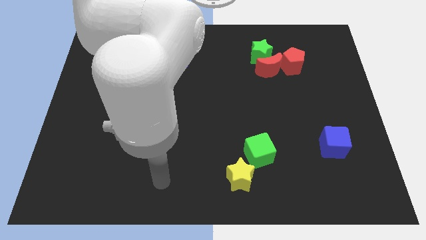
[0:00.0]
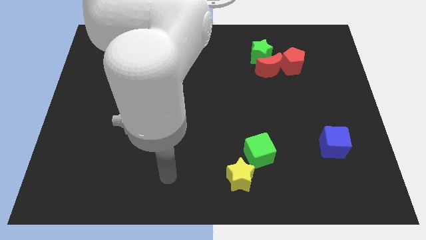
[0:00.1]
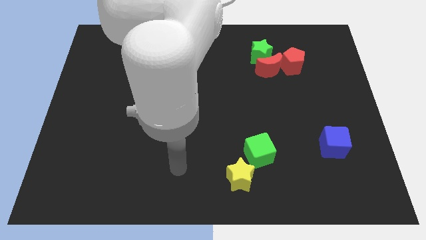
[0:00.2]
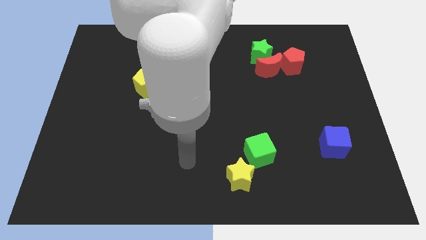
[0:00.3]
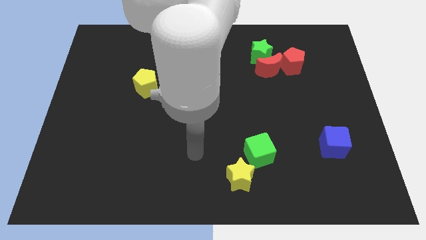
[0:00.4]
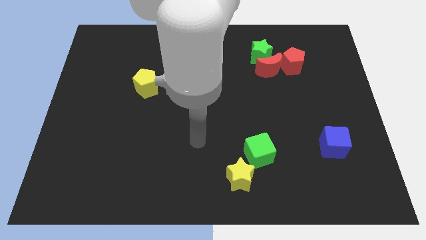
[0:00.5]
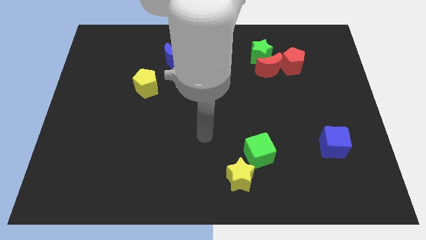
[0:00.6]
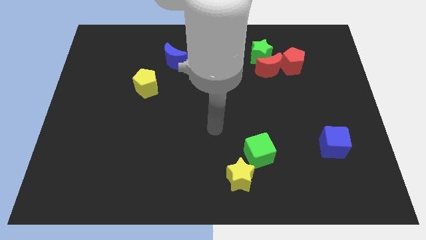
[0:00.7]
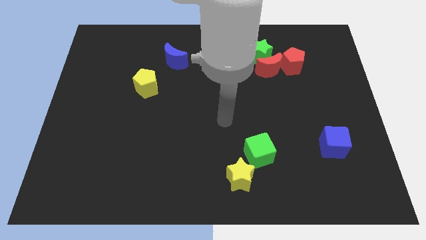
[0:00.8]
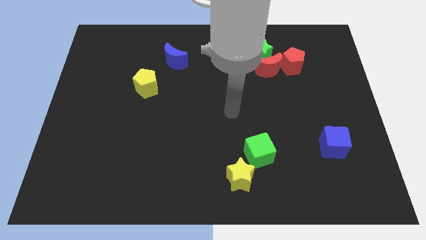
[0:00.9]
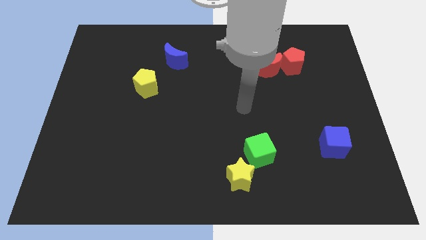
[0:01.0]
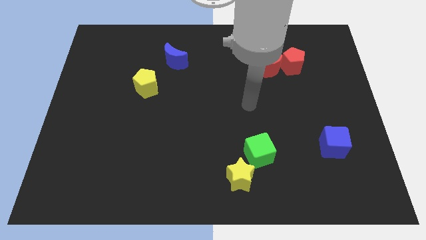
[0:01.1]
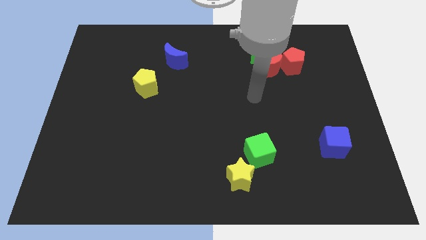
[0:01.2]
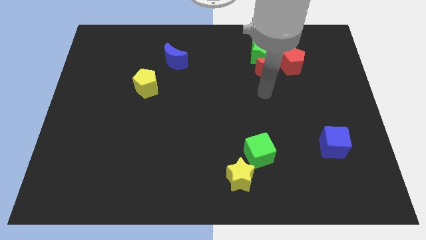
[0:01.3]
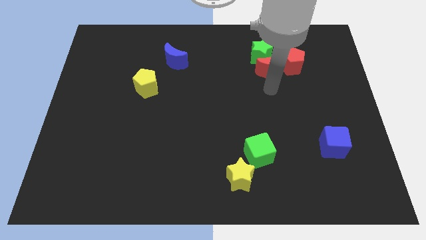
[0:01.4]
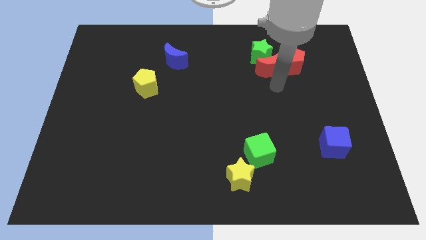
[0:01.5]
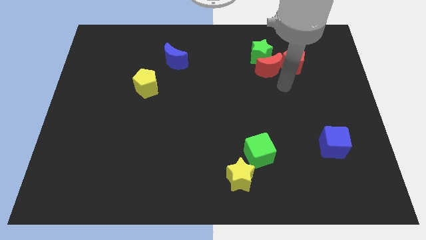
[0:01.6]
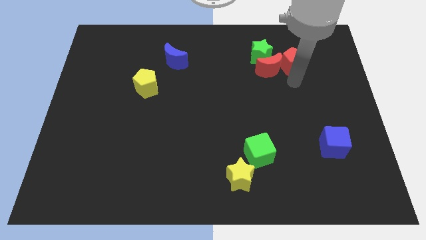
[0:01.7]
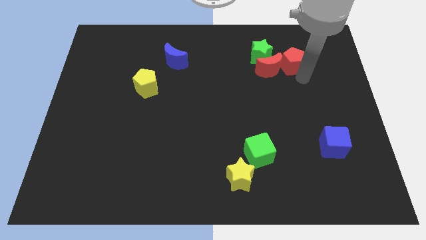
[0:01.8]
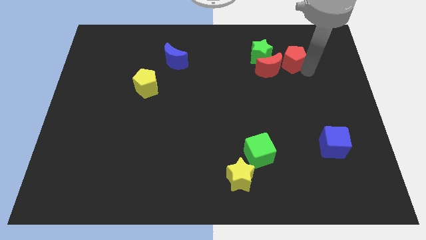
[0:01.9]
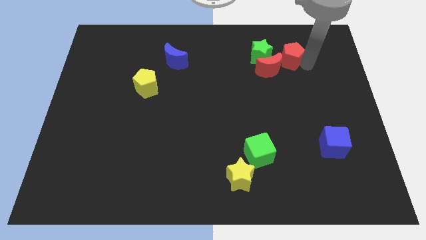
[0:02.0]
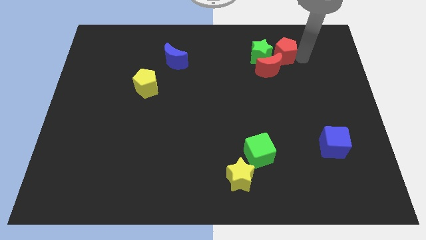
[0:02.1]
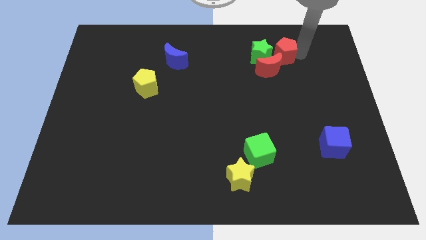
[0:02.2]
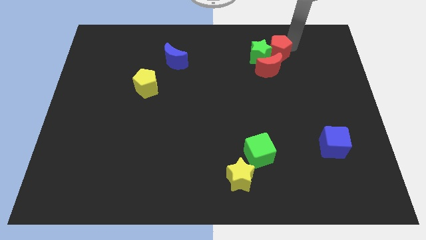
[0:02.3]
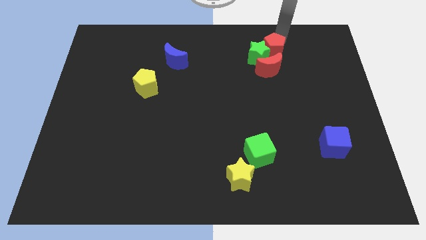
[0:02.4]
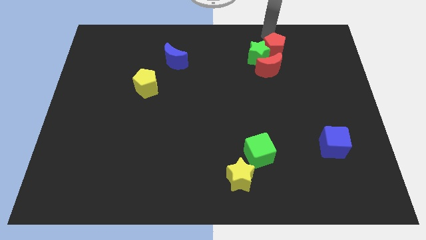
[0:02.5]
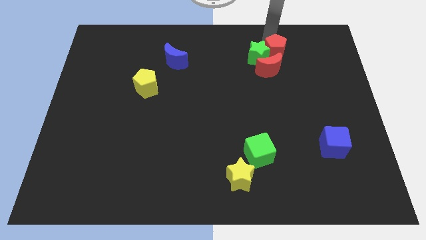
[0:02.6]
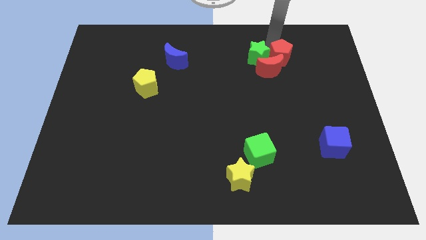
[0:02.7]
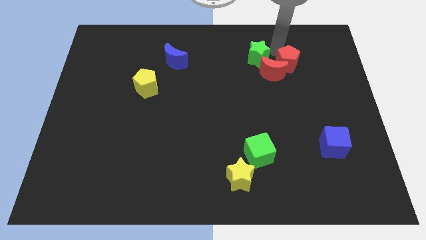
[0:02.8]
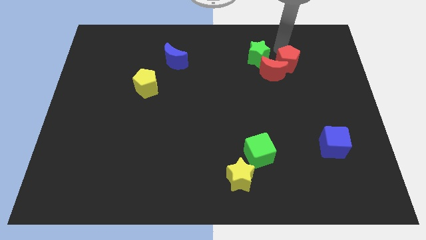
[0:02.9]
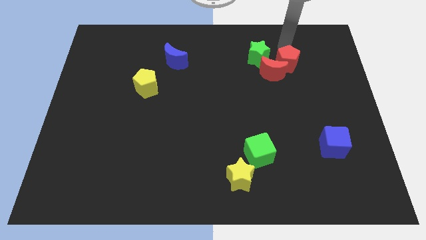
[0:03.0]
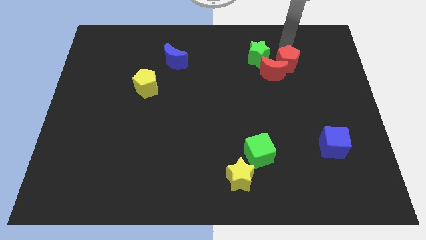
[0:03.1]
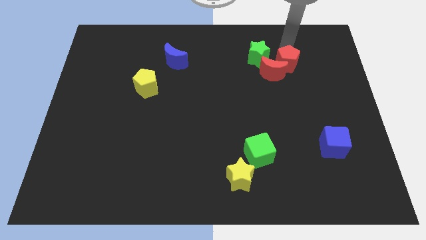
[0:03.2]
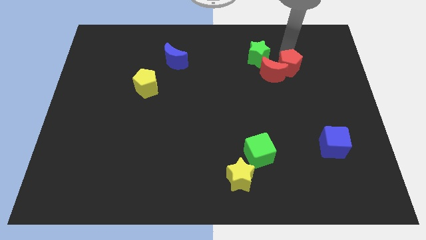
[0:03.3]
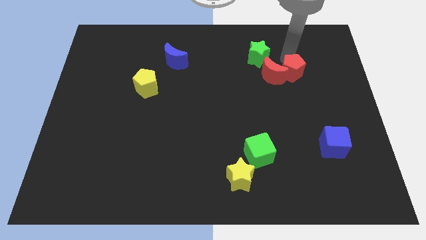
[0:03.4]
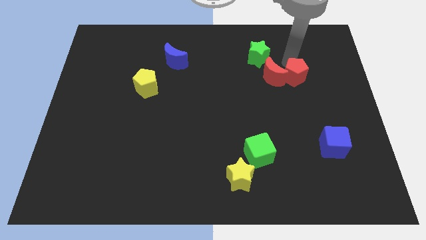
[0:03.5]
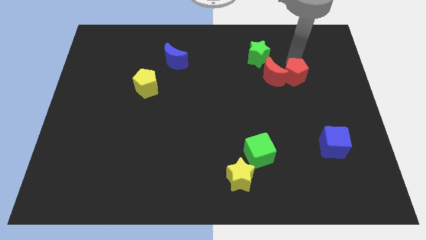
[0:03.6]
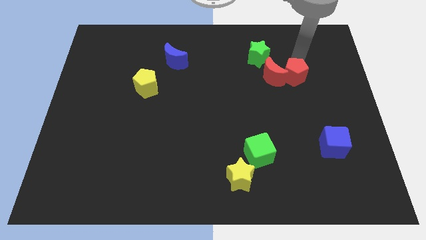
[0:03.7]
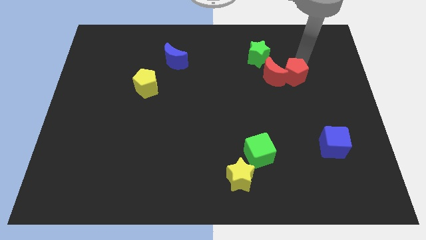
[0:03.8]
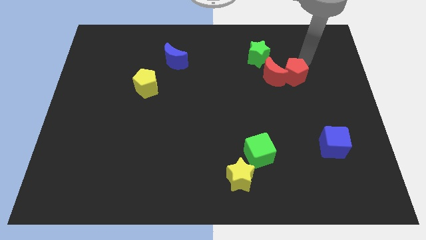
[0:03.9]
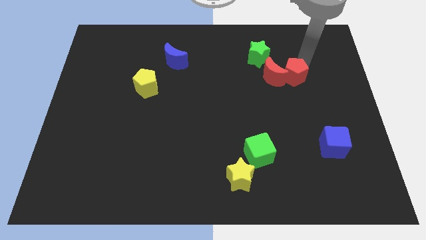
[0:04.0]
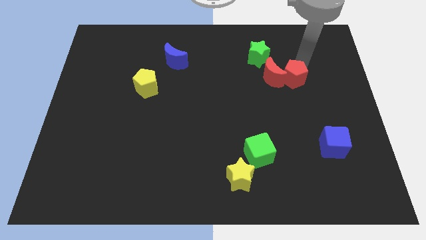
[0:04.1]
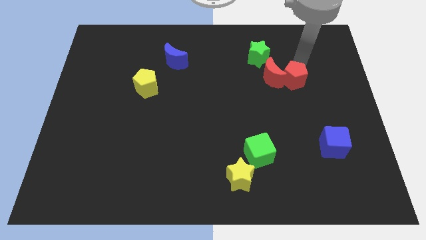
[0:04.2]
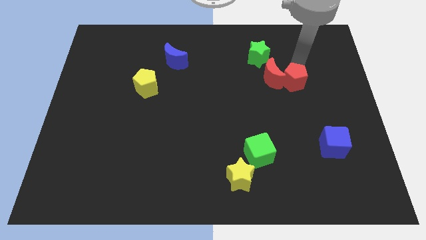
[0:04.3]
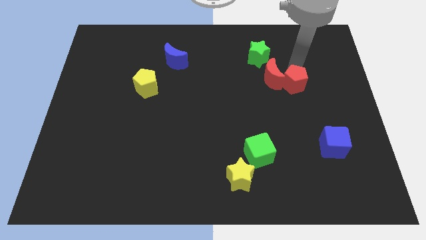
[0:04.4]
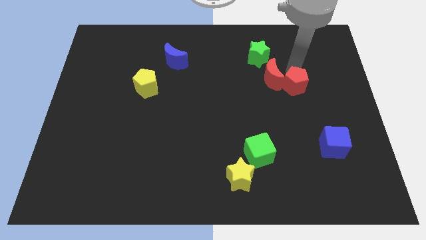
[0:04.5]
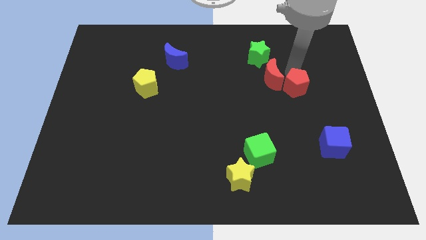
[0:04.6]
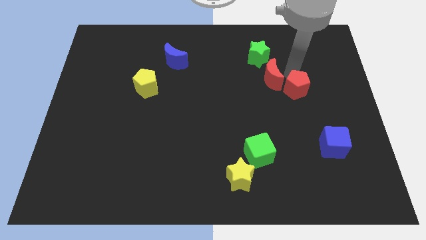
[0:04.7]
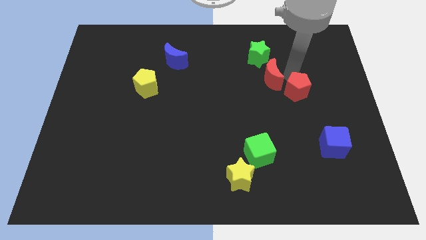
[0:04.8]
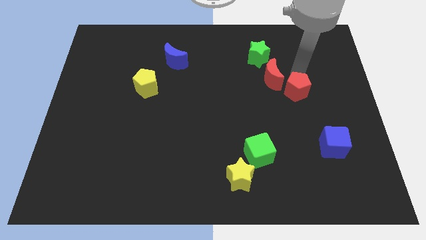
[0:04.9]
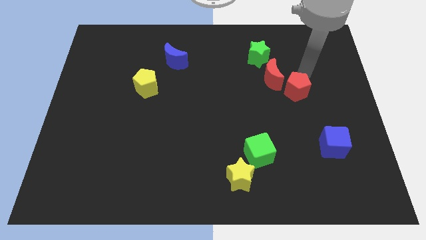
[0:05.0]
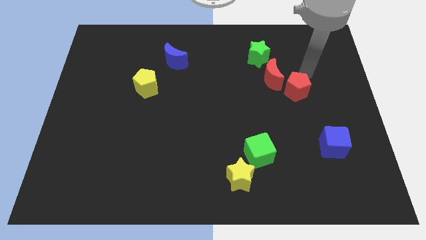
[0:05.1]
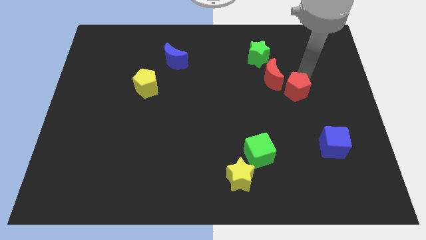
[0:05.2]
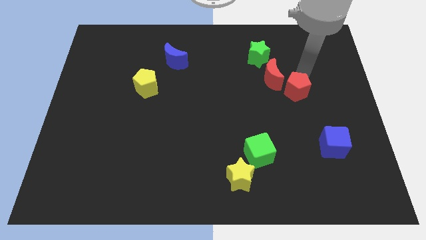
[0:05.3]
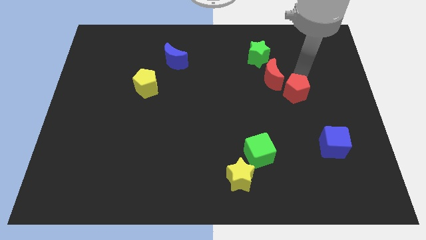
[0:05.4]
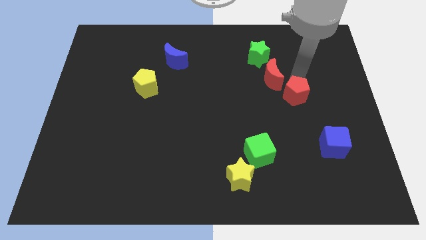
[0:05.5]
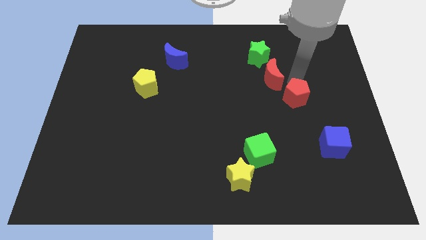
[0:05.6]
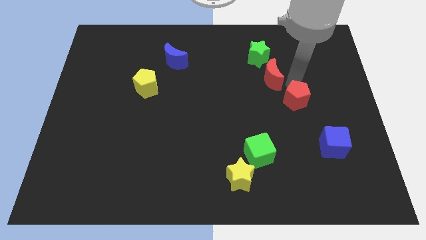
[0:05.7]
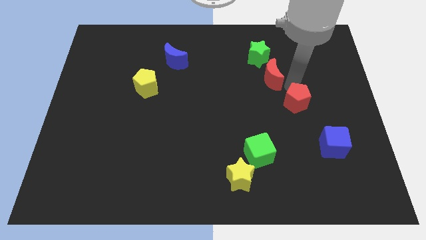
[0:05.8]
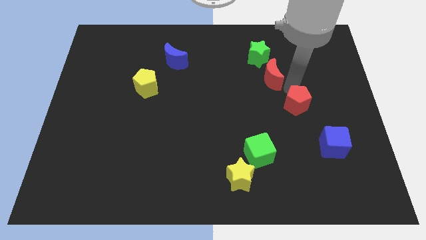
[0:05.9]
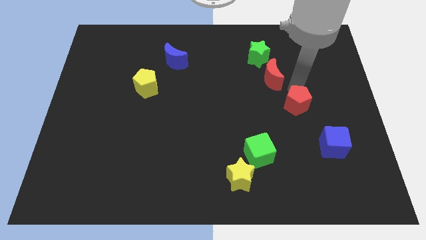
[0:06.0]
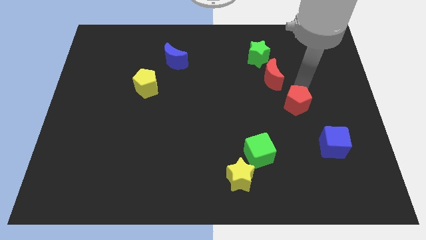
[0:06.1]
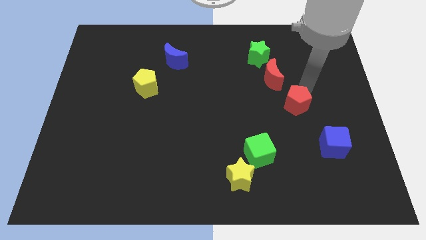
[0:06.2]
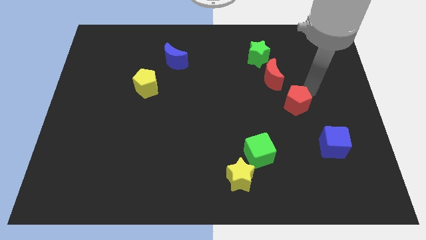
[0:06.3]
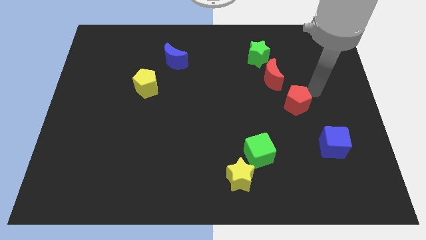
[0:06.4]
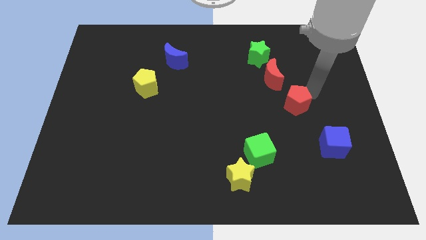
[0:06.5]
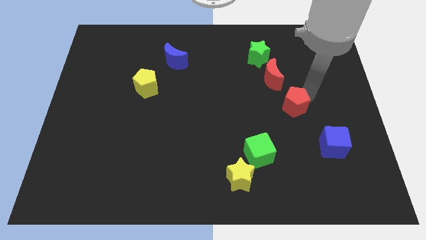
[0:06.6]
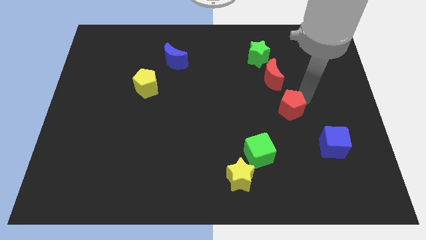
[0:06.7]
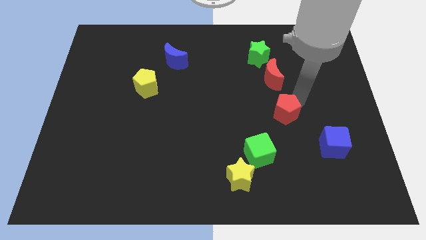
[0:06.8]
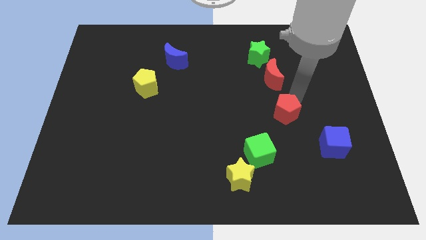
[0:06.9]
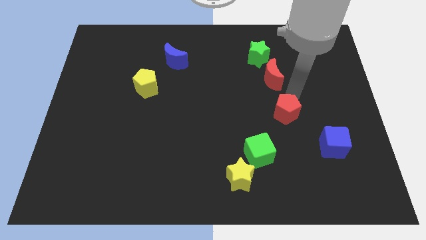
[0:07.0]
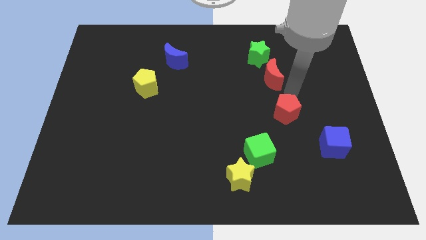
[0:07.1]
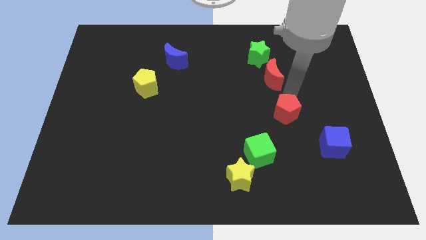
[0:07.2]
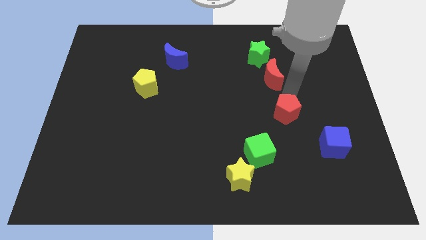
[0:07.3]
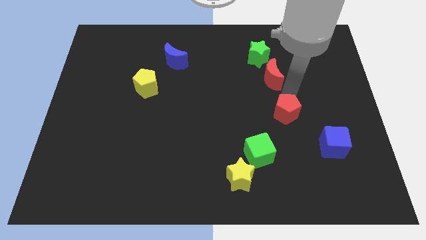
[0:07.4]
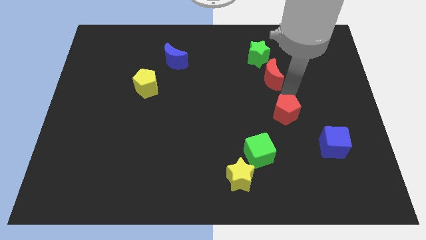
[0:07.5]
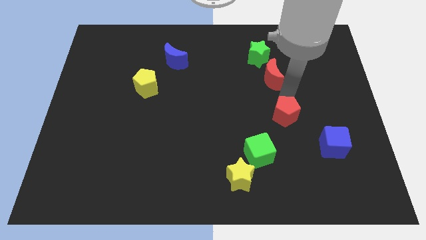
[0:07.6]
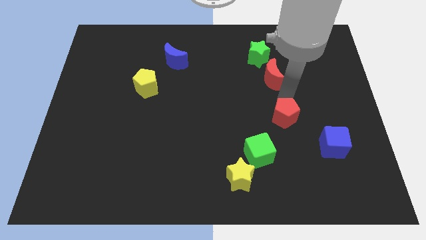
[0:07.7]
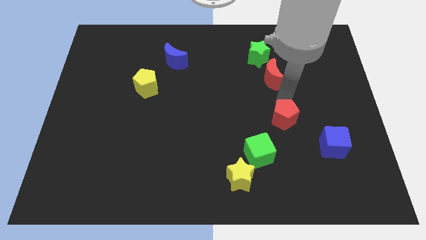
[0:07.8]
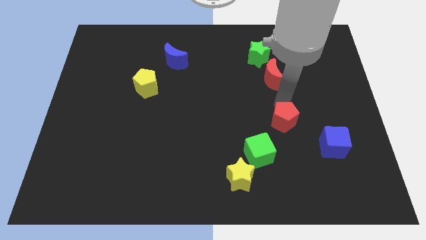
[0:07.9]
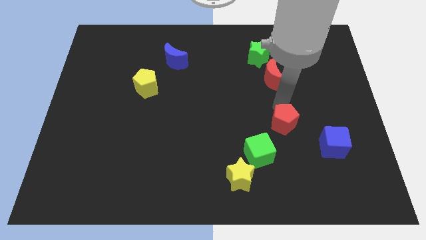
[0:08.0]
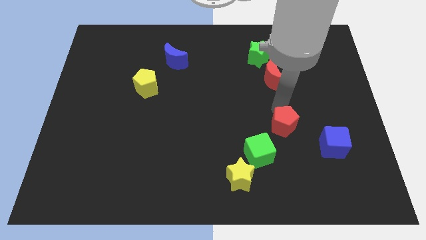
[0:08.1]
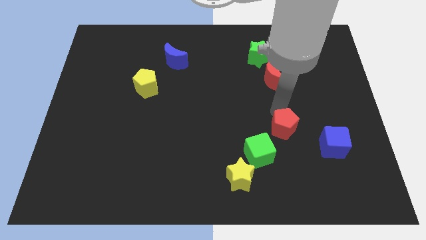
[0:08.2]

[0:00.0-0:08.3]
put the red pentagon just left of the blue cube
